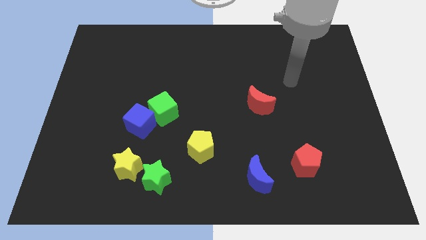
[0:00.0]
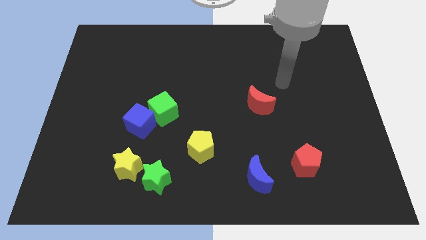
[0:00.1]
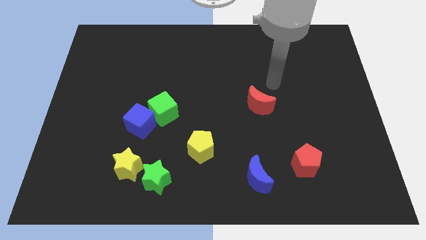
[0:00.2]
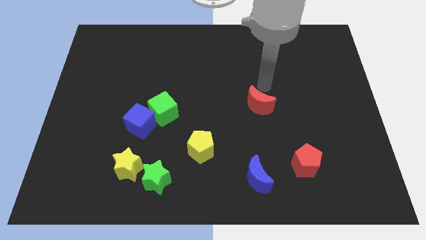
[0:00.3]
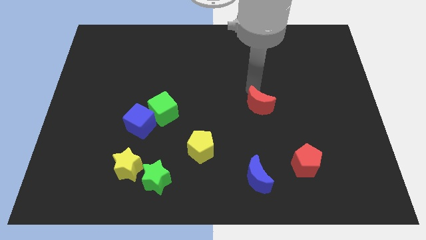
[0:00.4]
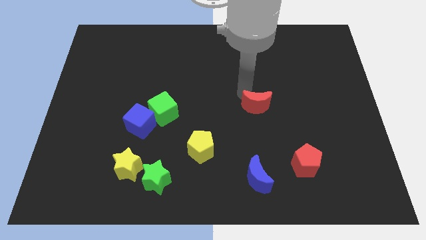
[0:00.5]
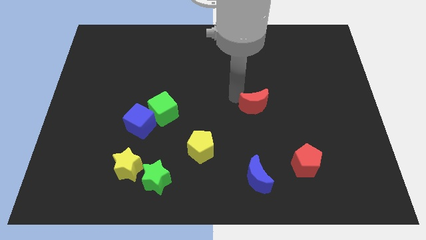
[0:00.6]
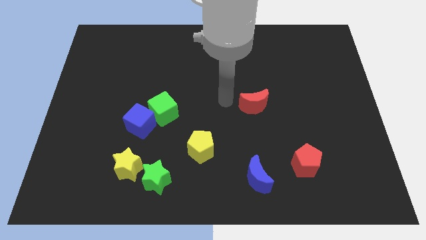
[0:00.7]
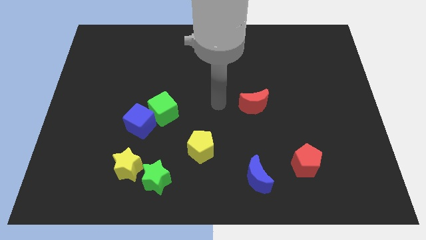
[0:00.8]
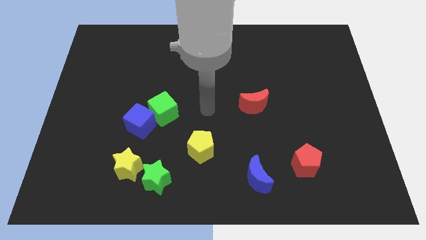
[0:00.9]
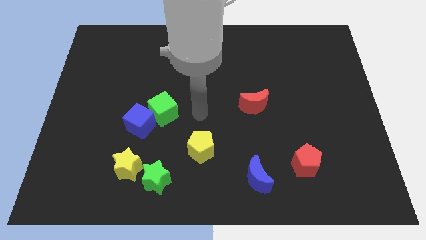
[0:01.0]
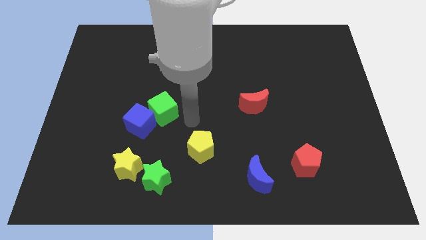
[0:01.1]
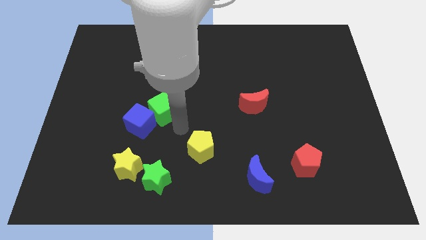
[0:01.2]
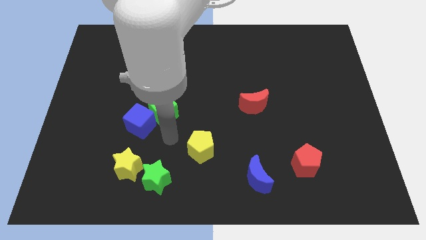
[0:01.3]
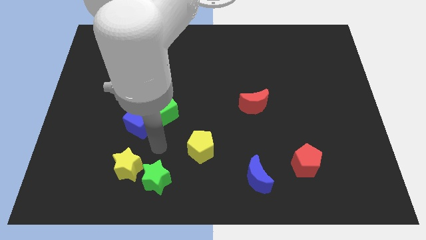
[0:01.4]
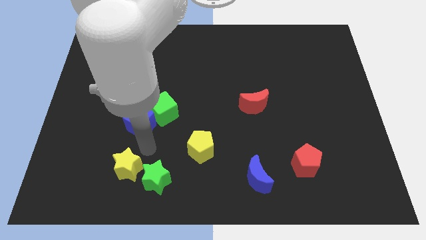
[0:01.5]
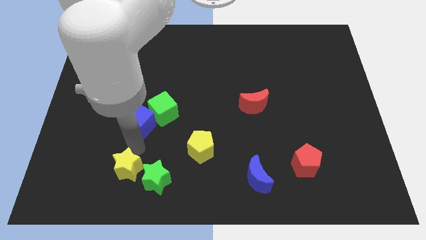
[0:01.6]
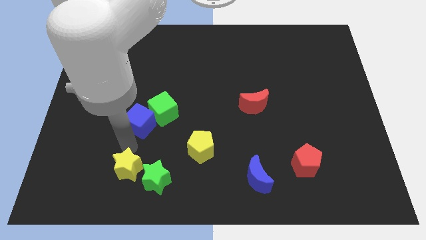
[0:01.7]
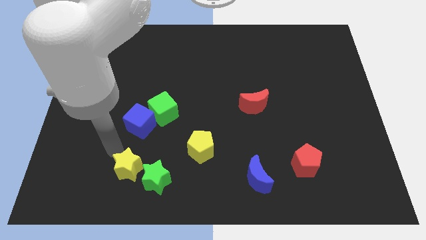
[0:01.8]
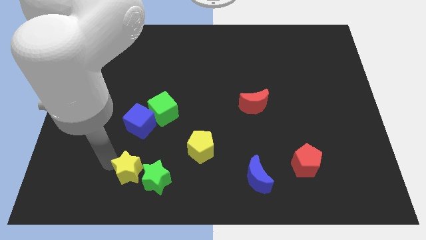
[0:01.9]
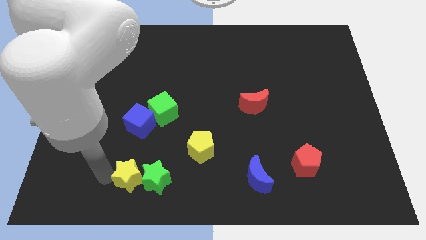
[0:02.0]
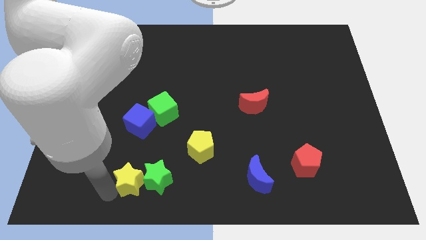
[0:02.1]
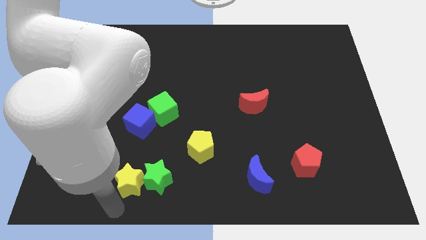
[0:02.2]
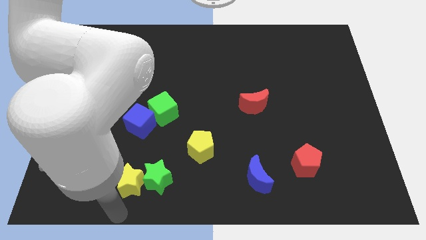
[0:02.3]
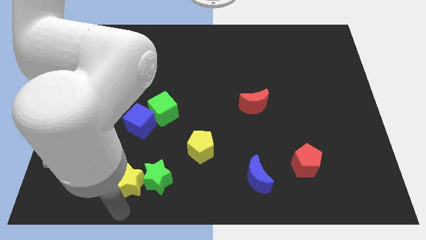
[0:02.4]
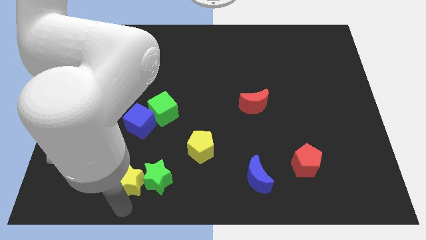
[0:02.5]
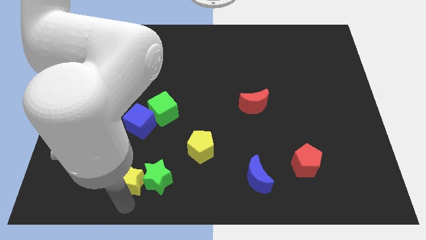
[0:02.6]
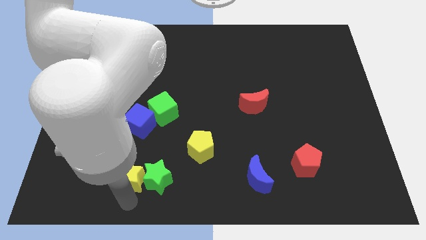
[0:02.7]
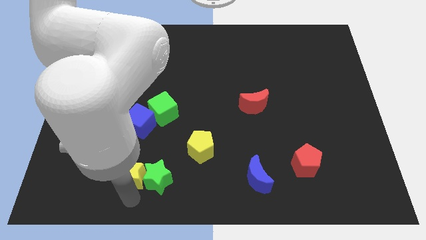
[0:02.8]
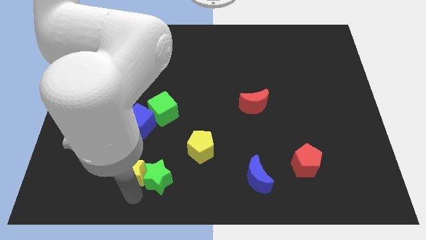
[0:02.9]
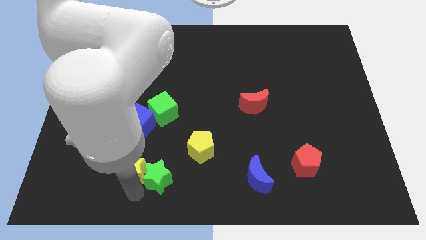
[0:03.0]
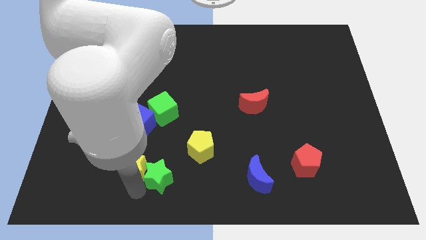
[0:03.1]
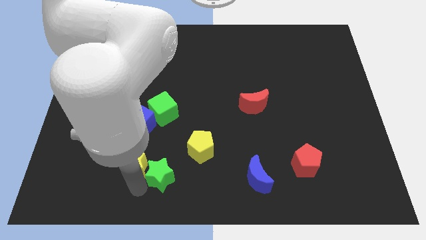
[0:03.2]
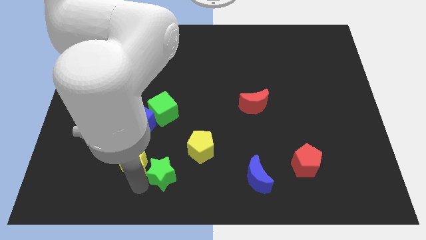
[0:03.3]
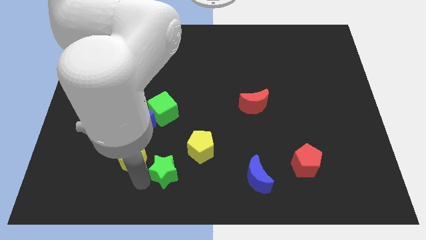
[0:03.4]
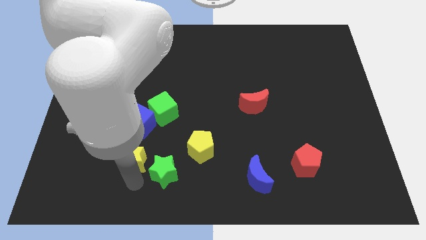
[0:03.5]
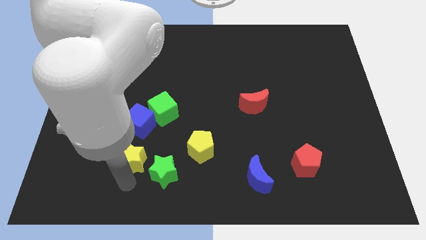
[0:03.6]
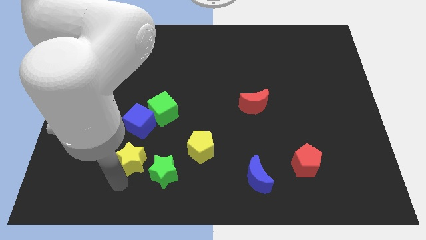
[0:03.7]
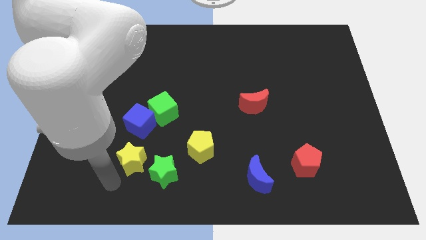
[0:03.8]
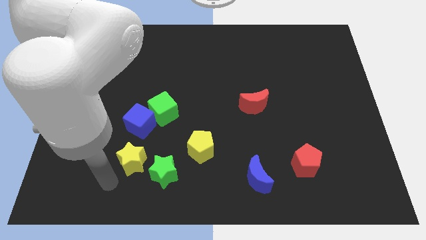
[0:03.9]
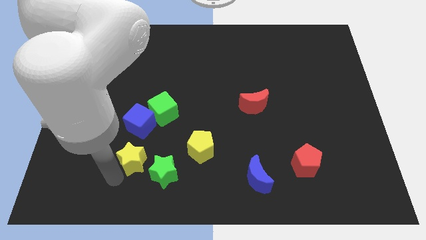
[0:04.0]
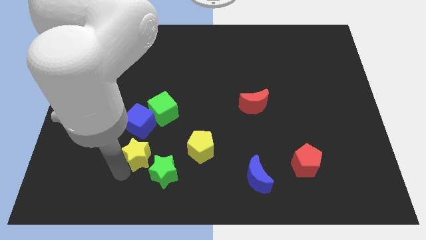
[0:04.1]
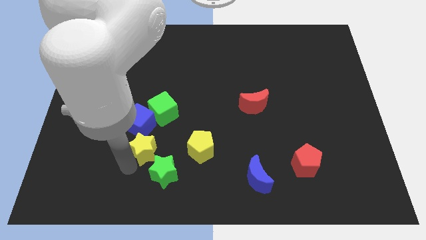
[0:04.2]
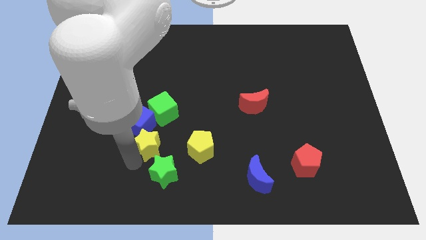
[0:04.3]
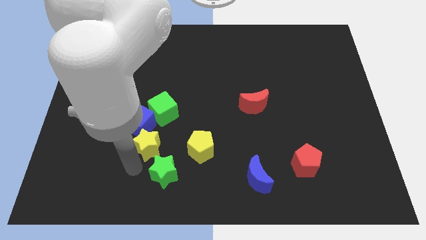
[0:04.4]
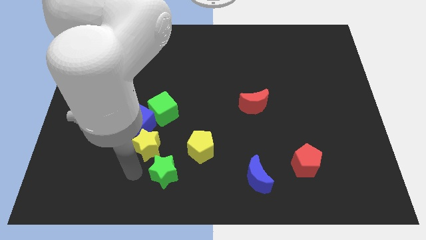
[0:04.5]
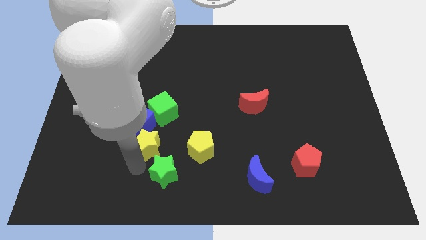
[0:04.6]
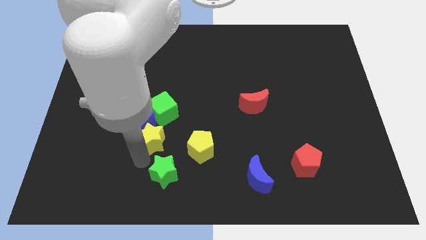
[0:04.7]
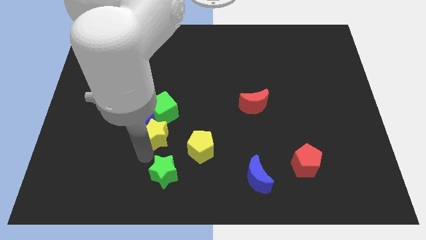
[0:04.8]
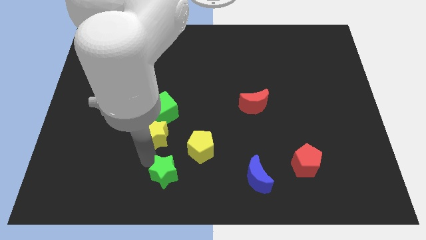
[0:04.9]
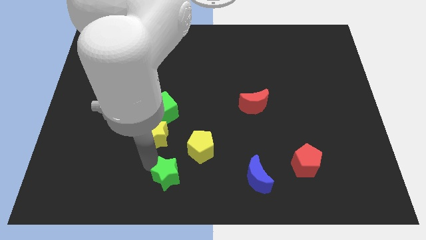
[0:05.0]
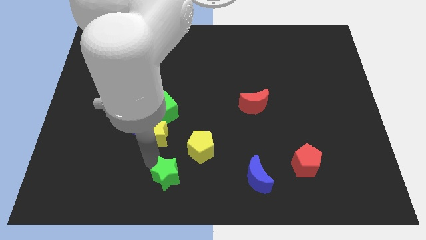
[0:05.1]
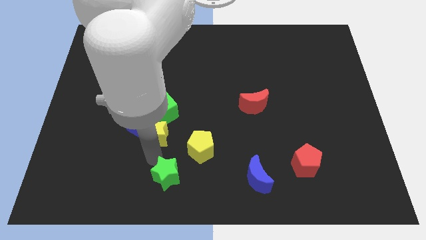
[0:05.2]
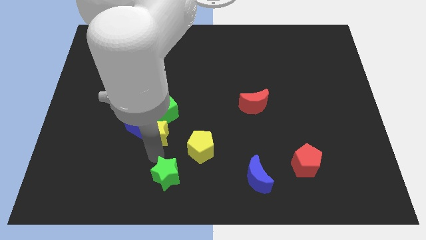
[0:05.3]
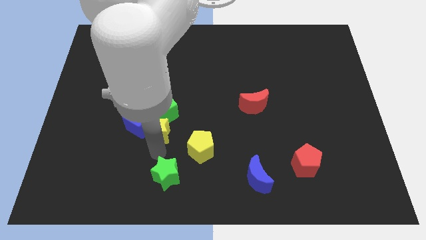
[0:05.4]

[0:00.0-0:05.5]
push the yellow star towards the green cube

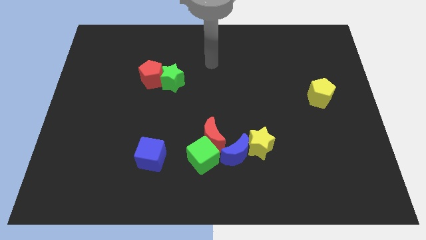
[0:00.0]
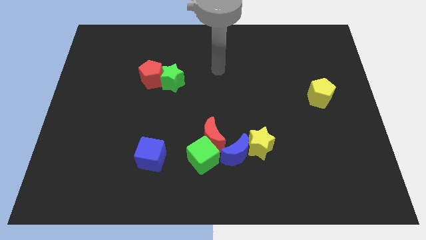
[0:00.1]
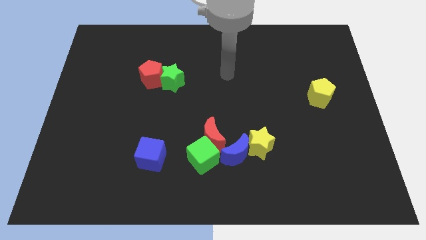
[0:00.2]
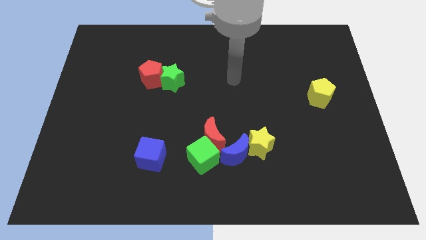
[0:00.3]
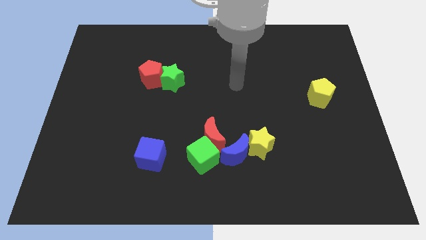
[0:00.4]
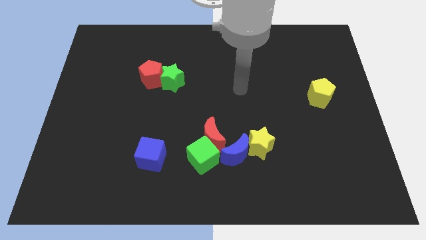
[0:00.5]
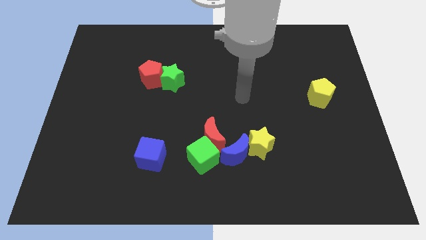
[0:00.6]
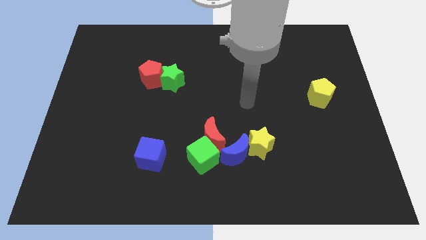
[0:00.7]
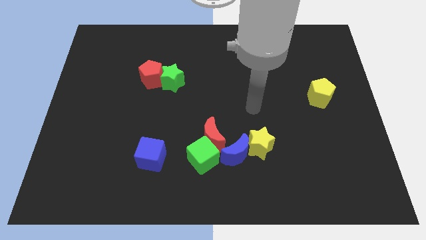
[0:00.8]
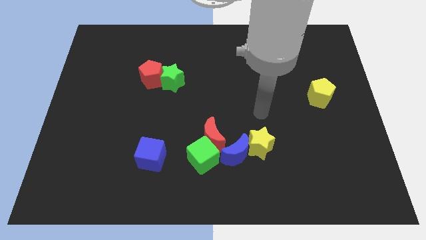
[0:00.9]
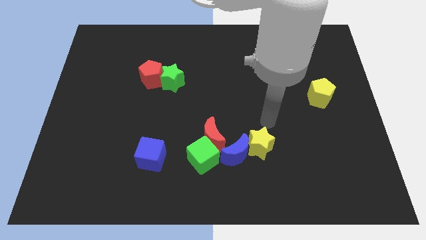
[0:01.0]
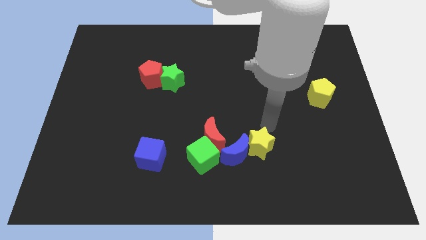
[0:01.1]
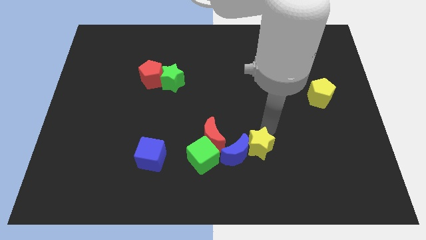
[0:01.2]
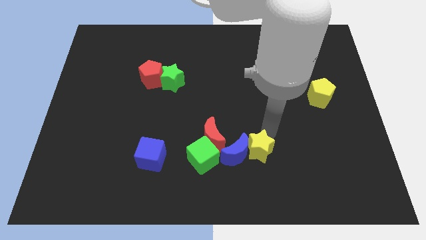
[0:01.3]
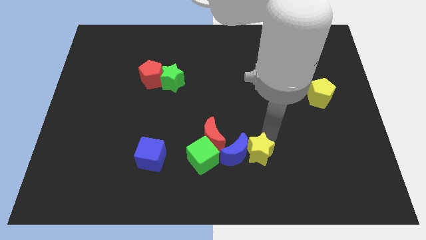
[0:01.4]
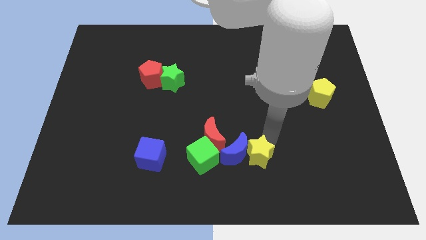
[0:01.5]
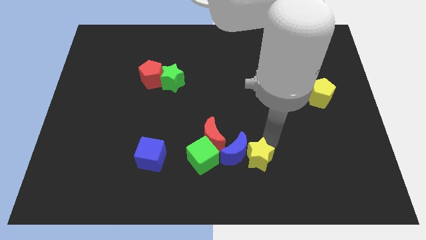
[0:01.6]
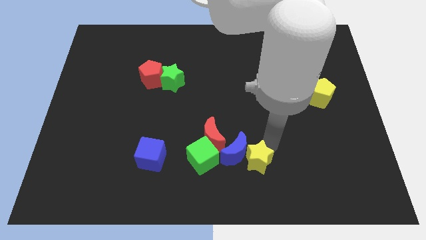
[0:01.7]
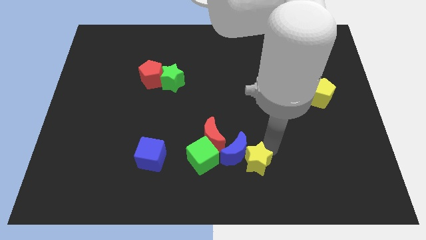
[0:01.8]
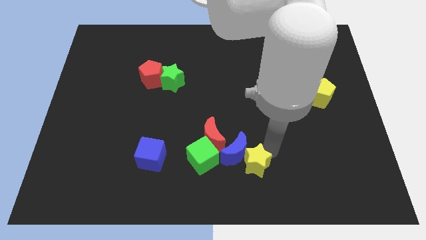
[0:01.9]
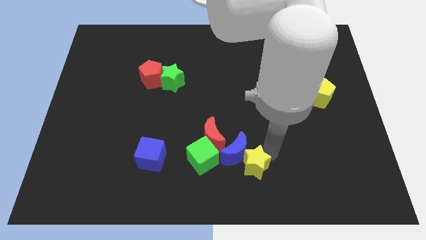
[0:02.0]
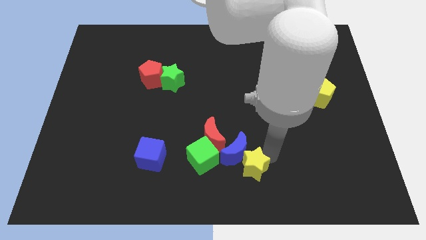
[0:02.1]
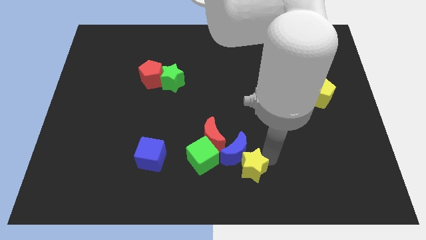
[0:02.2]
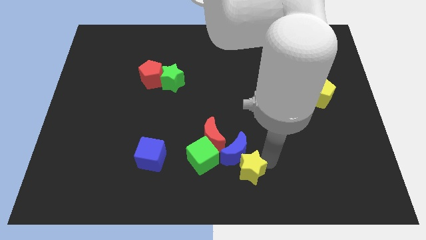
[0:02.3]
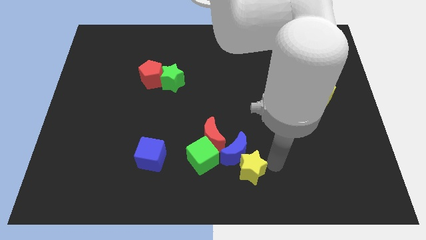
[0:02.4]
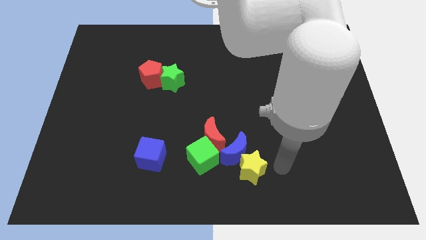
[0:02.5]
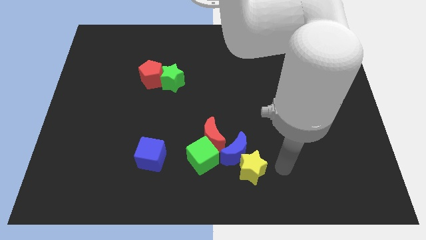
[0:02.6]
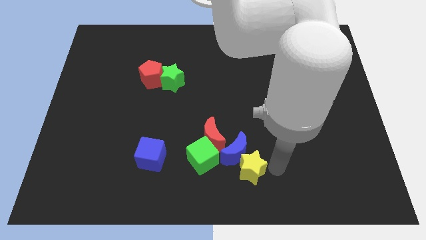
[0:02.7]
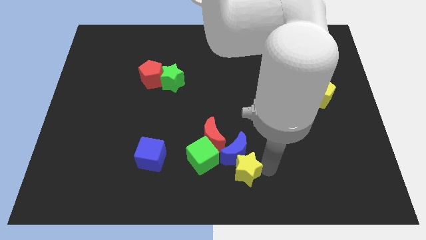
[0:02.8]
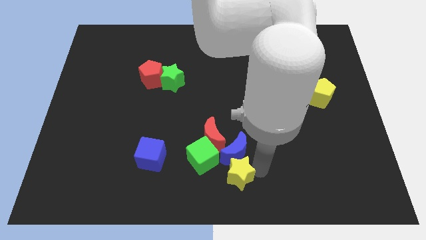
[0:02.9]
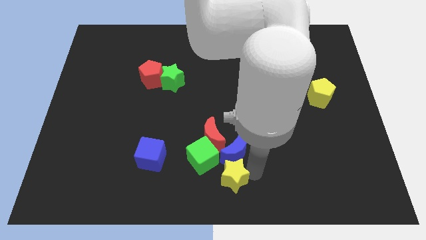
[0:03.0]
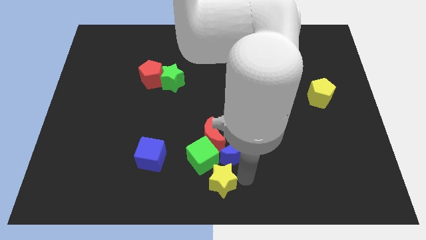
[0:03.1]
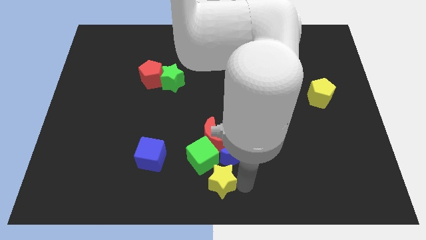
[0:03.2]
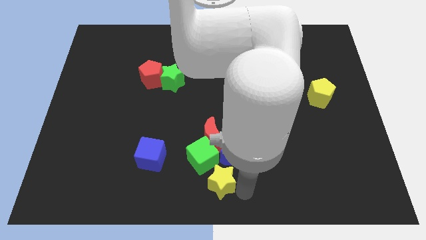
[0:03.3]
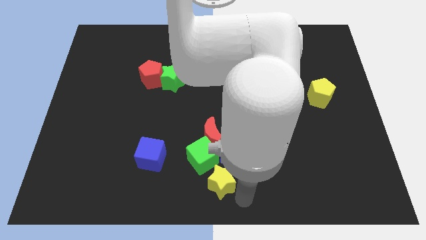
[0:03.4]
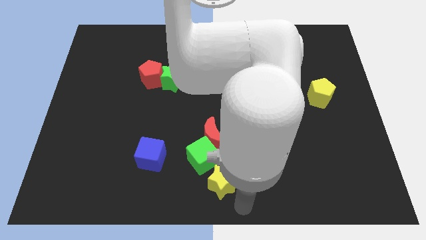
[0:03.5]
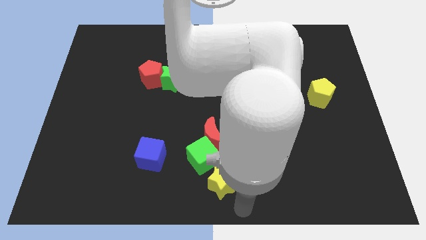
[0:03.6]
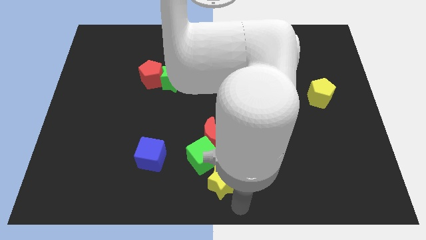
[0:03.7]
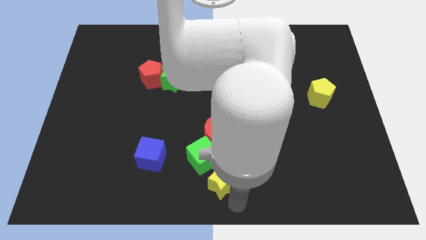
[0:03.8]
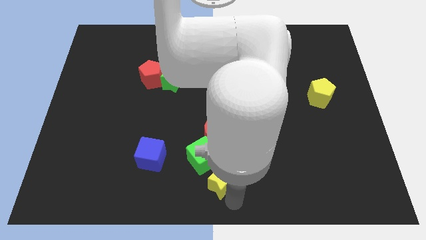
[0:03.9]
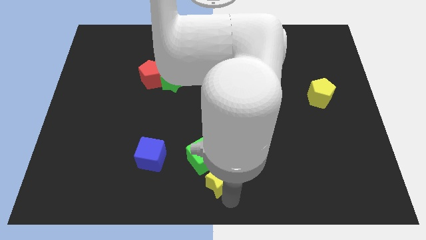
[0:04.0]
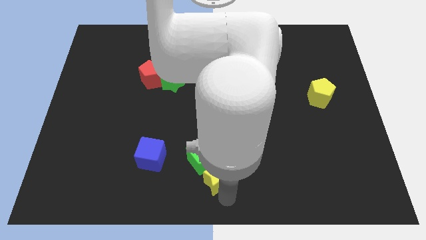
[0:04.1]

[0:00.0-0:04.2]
slide the yellow star towards the green cube
